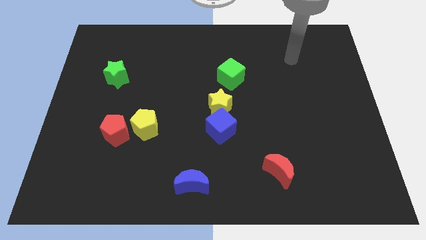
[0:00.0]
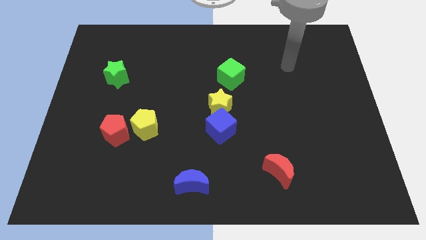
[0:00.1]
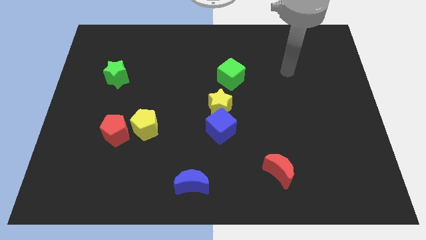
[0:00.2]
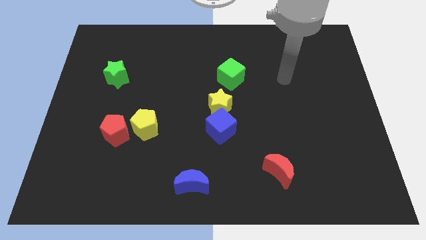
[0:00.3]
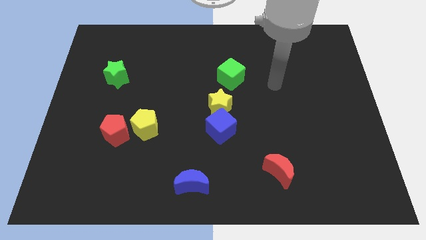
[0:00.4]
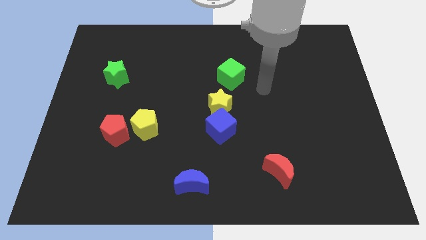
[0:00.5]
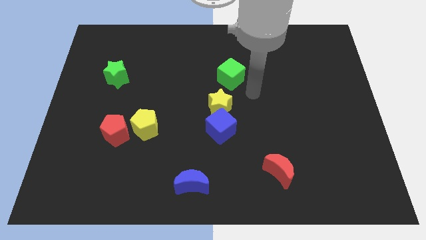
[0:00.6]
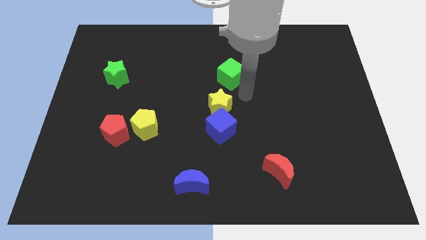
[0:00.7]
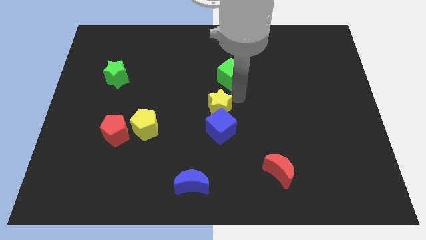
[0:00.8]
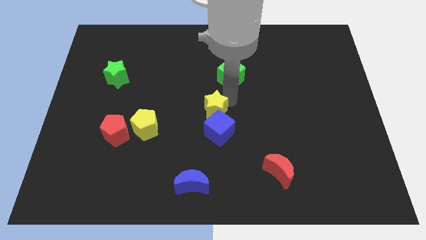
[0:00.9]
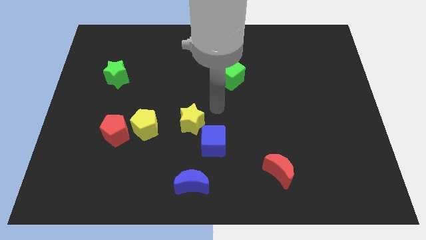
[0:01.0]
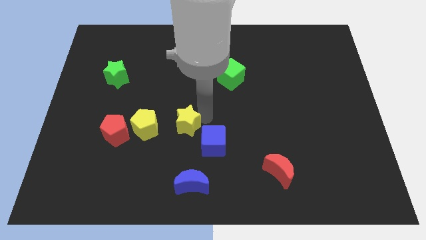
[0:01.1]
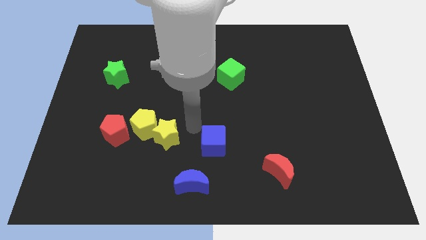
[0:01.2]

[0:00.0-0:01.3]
pull the blue cube apart from the yellow star

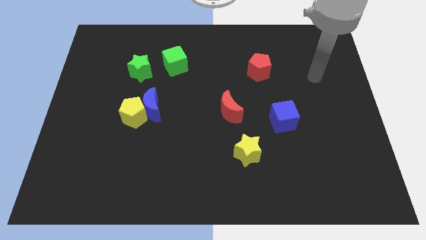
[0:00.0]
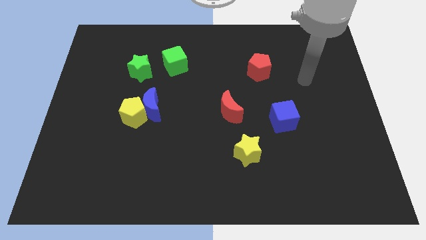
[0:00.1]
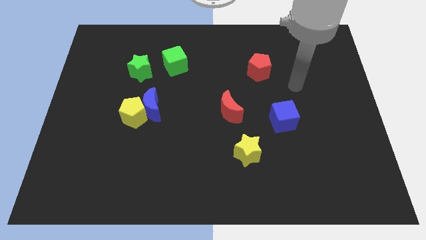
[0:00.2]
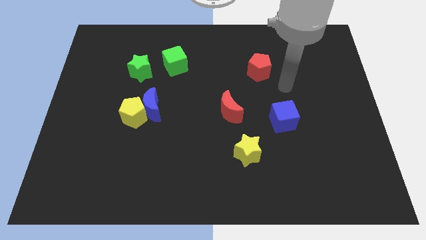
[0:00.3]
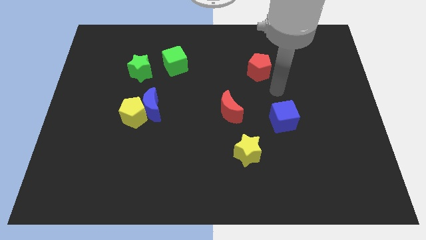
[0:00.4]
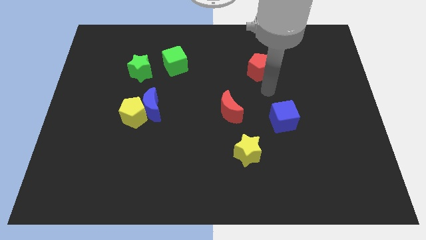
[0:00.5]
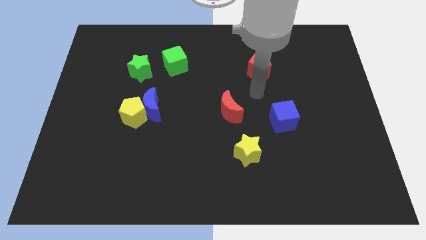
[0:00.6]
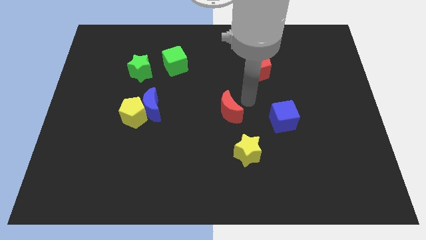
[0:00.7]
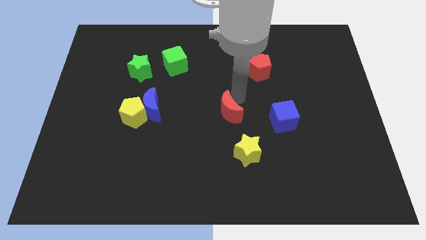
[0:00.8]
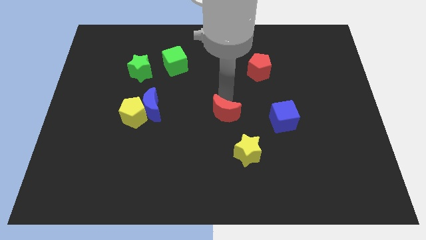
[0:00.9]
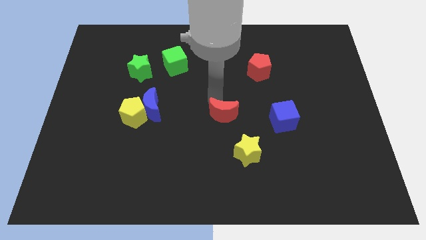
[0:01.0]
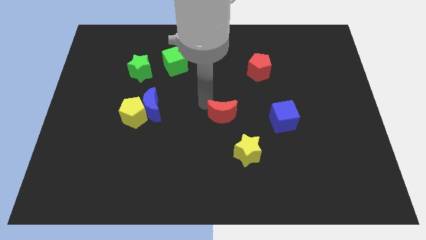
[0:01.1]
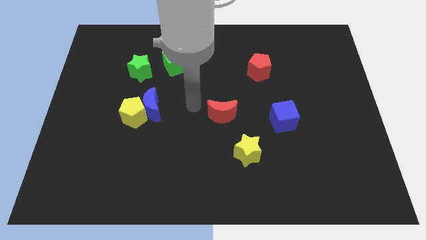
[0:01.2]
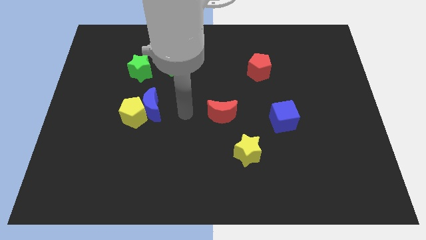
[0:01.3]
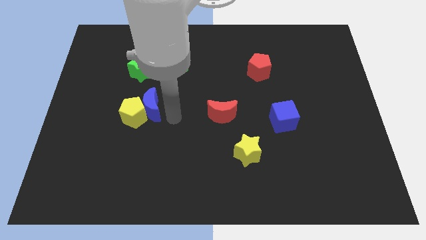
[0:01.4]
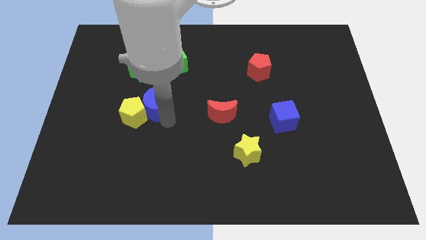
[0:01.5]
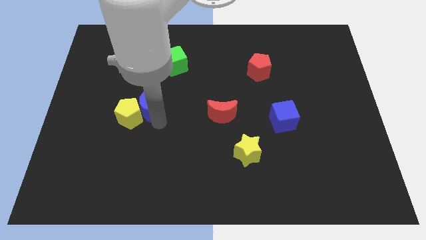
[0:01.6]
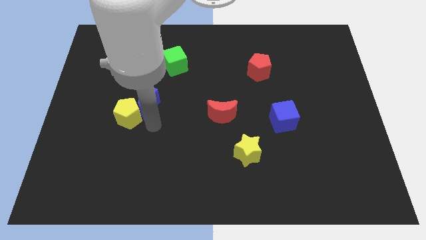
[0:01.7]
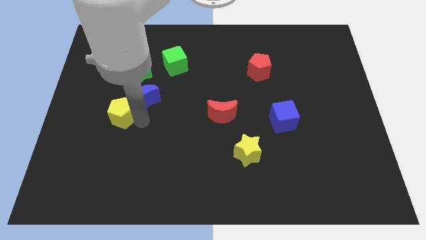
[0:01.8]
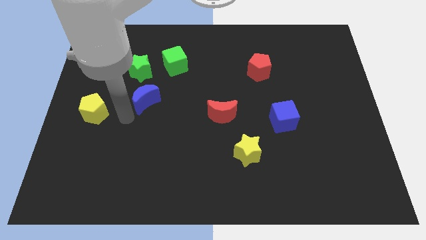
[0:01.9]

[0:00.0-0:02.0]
separate the blue moon from the yellow pentagon

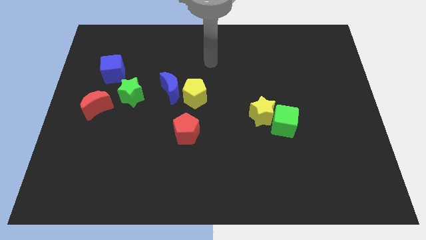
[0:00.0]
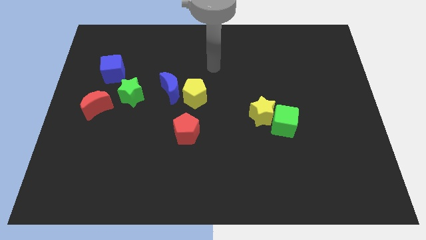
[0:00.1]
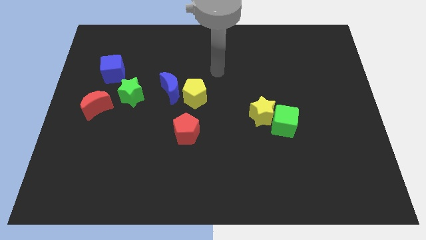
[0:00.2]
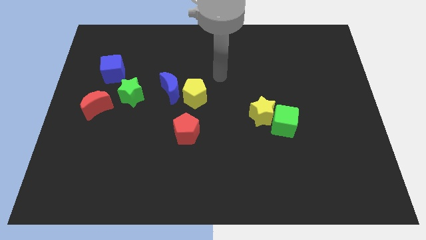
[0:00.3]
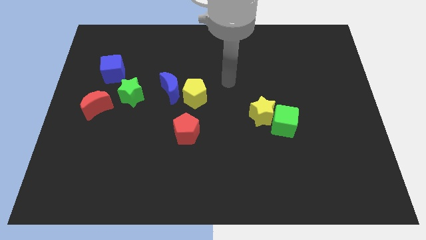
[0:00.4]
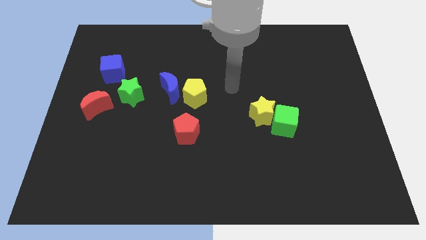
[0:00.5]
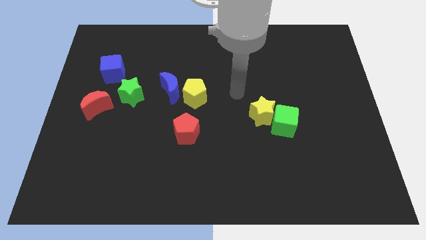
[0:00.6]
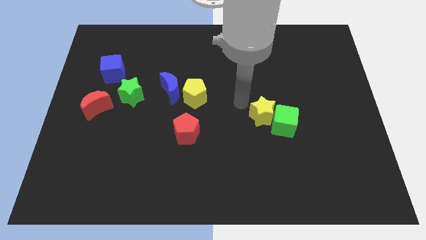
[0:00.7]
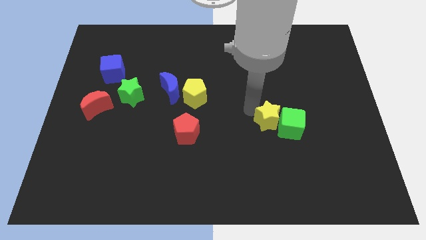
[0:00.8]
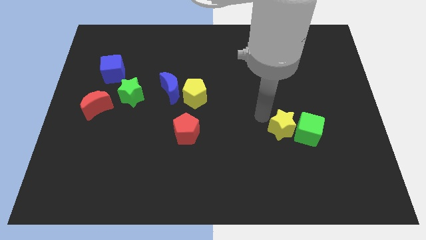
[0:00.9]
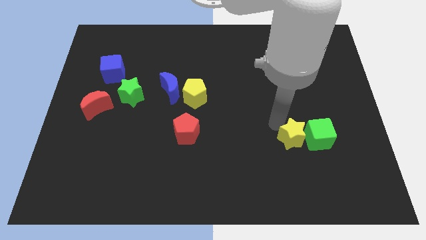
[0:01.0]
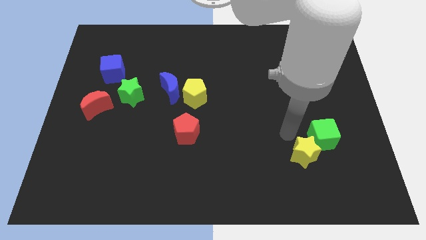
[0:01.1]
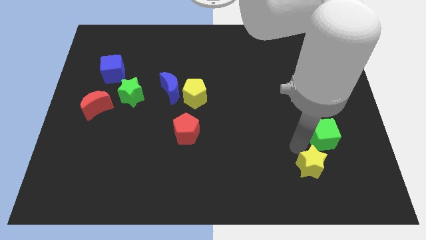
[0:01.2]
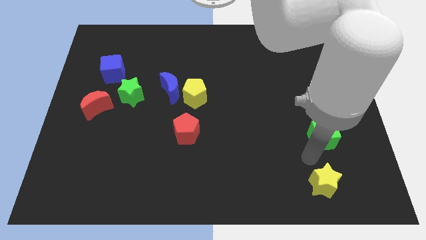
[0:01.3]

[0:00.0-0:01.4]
move the green cube away from the yellow star

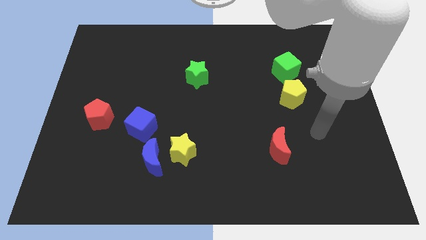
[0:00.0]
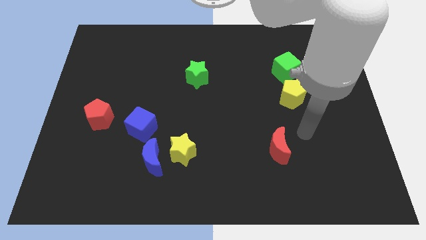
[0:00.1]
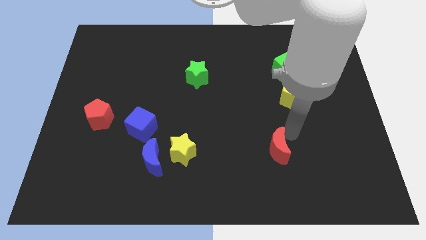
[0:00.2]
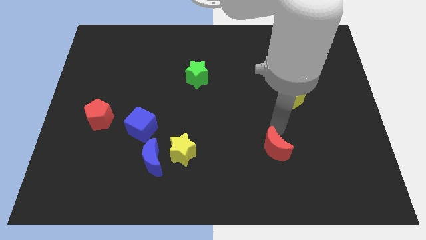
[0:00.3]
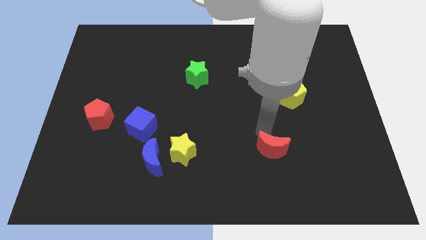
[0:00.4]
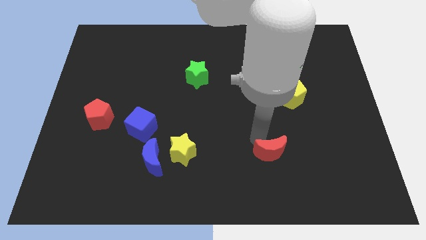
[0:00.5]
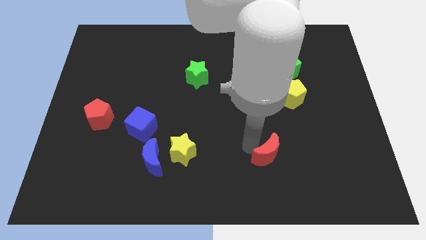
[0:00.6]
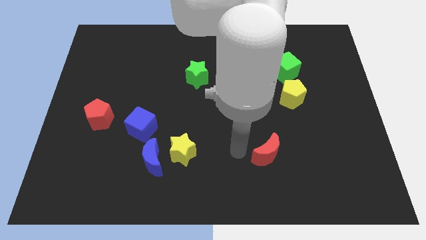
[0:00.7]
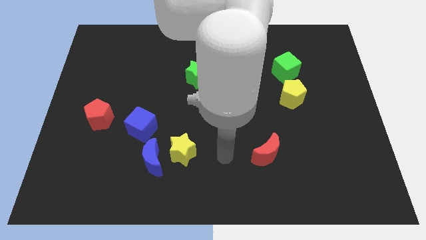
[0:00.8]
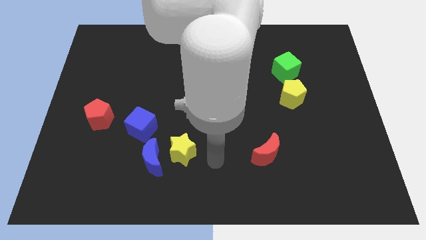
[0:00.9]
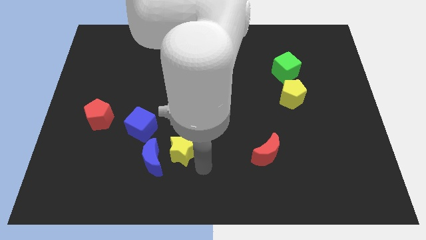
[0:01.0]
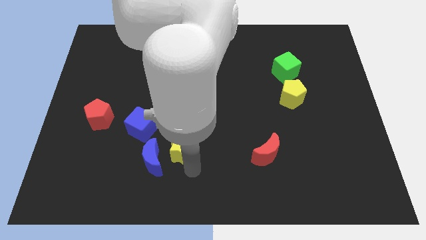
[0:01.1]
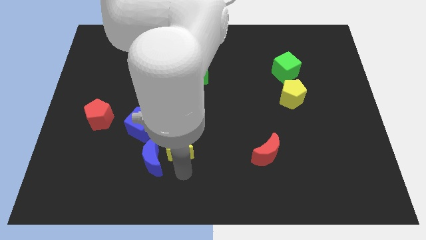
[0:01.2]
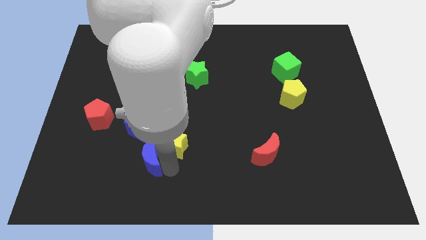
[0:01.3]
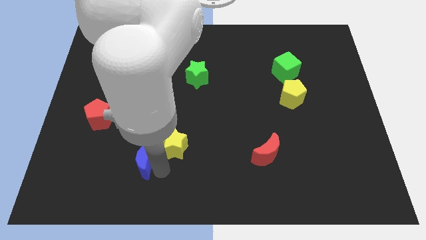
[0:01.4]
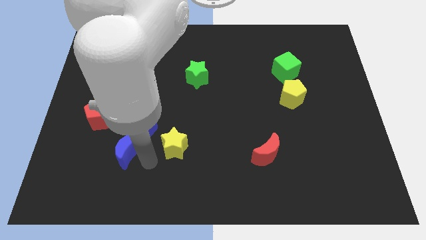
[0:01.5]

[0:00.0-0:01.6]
separate the yellow star from the blue moon

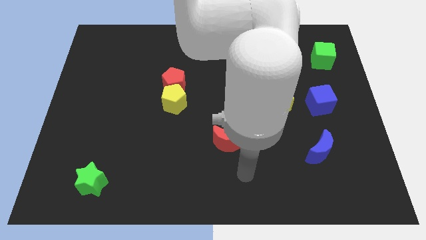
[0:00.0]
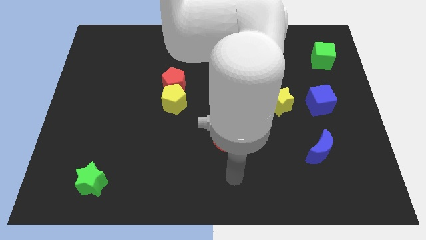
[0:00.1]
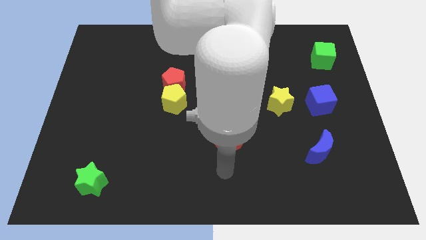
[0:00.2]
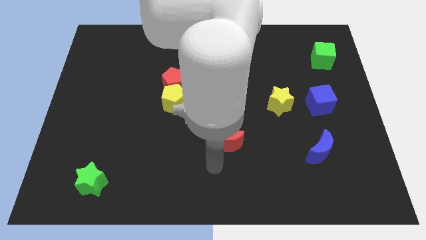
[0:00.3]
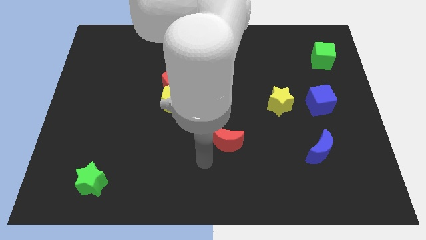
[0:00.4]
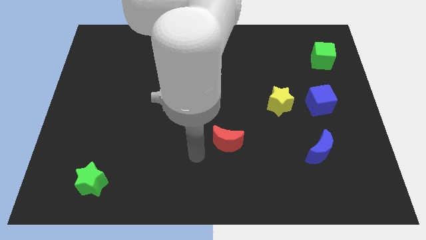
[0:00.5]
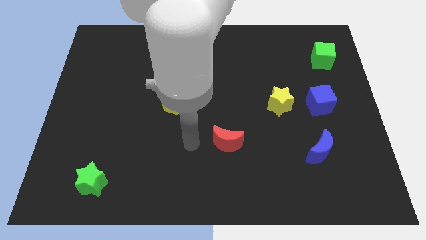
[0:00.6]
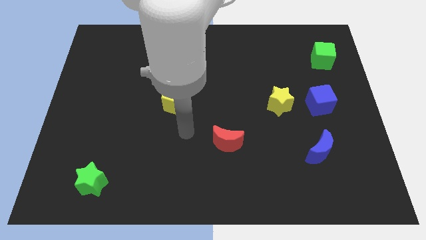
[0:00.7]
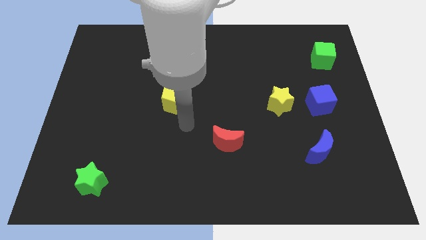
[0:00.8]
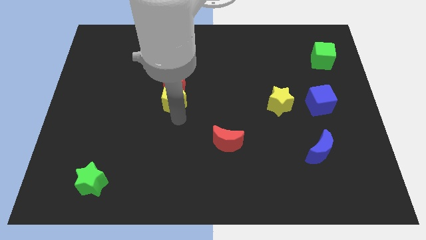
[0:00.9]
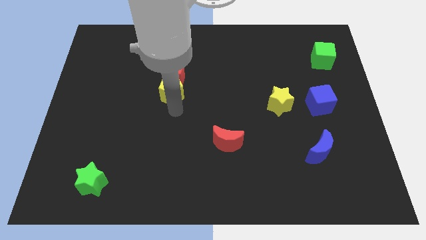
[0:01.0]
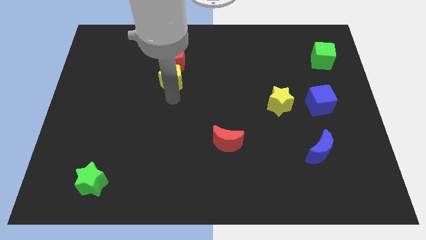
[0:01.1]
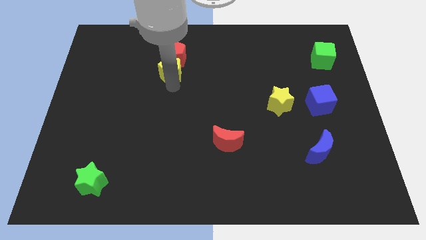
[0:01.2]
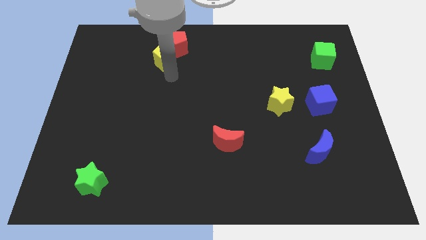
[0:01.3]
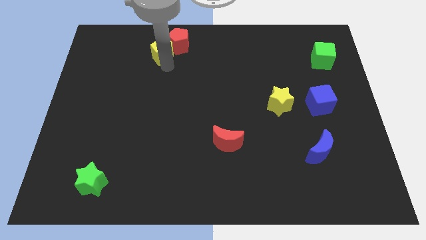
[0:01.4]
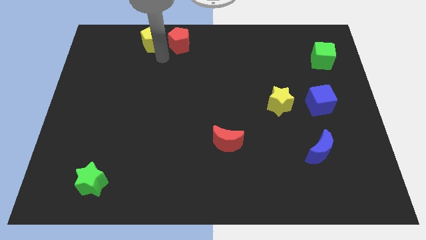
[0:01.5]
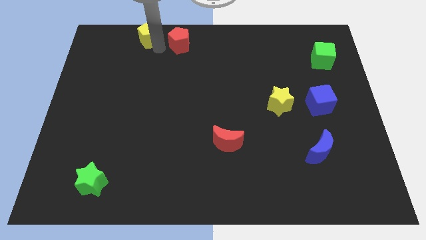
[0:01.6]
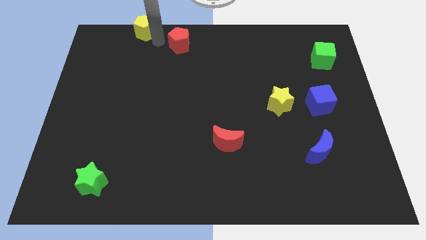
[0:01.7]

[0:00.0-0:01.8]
move the red pentagon away from the yellow pentagon

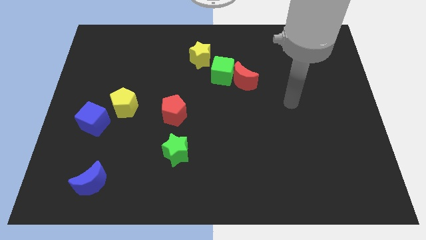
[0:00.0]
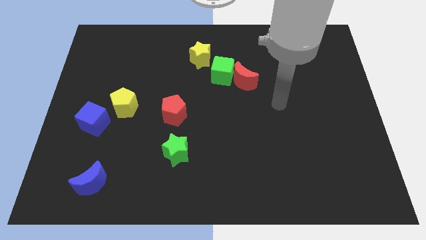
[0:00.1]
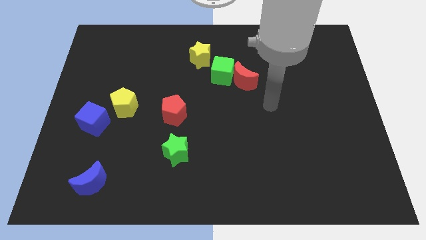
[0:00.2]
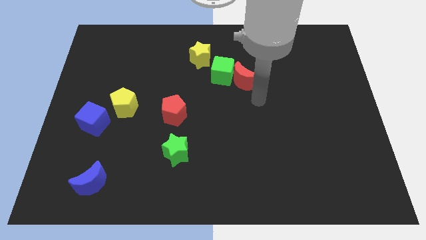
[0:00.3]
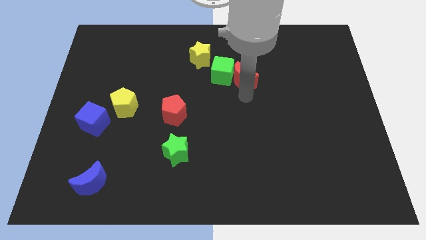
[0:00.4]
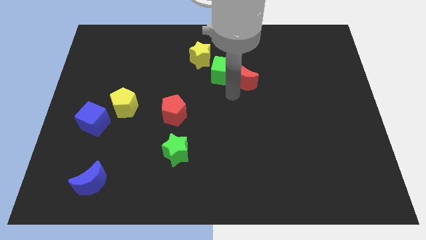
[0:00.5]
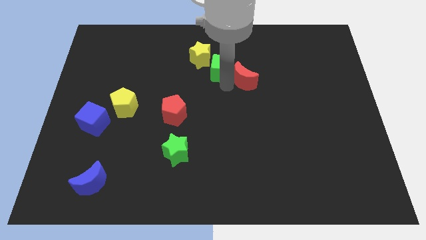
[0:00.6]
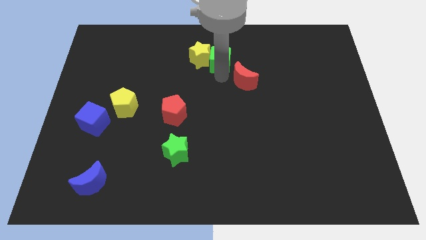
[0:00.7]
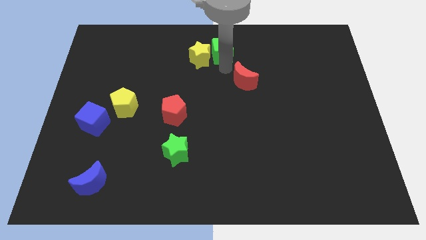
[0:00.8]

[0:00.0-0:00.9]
pull the red moon apart from the green cube

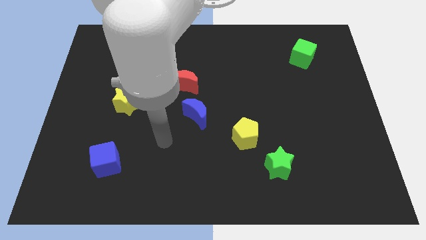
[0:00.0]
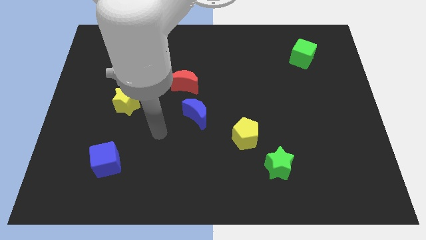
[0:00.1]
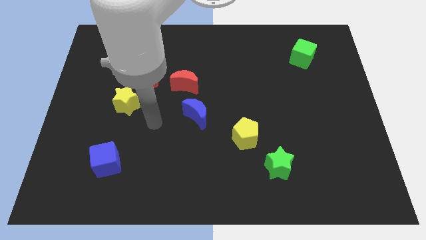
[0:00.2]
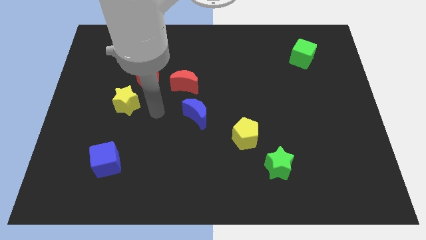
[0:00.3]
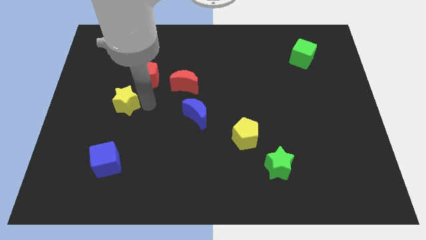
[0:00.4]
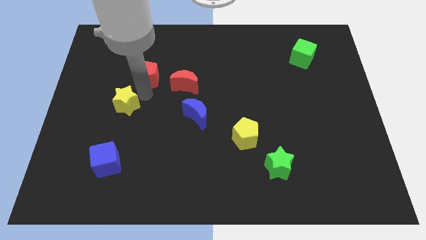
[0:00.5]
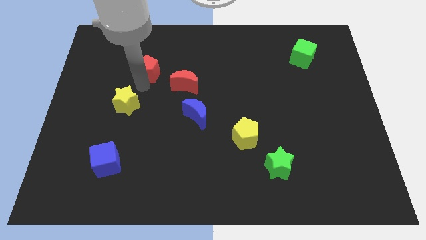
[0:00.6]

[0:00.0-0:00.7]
move the yellow star away from the red pentagon
